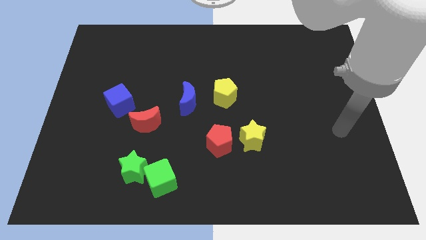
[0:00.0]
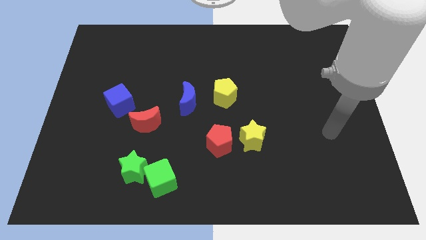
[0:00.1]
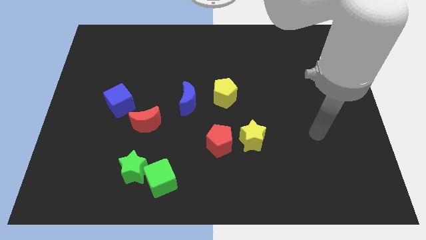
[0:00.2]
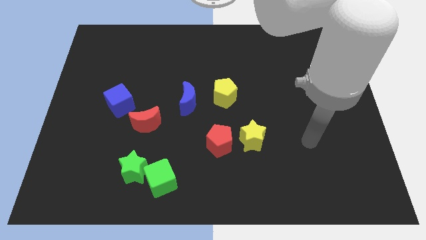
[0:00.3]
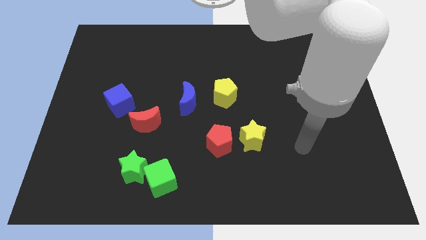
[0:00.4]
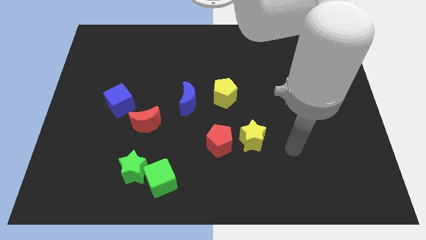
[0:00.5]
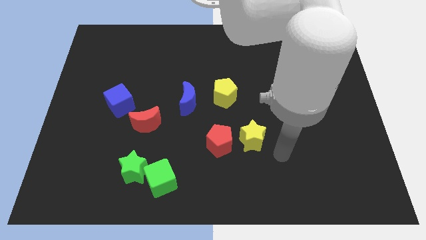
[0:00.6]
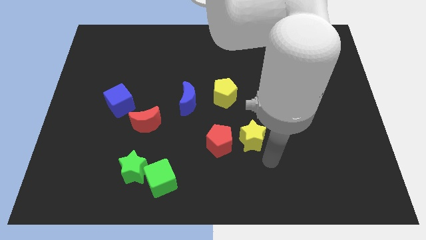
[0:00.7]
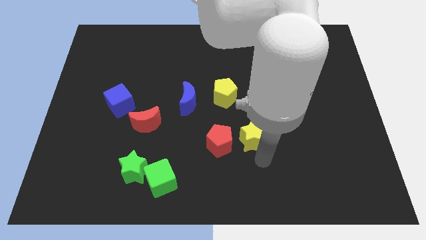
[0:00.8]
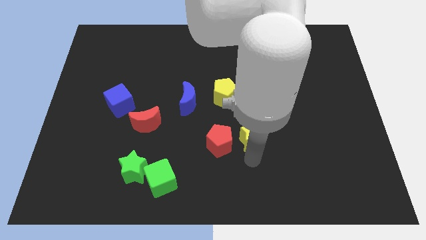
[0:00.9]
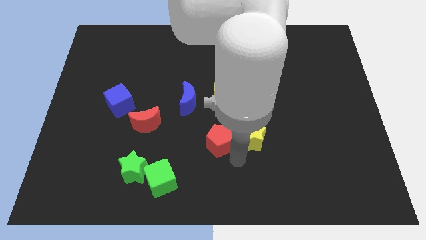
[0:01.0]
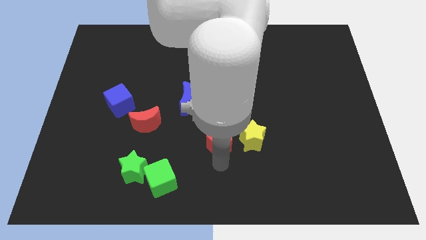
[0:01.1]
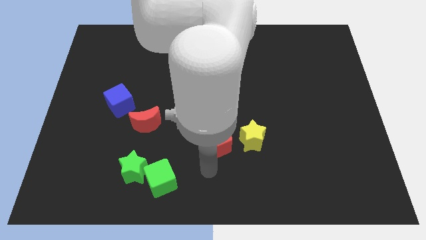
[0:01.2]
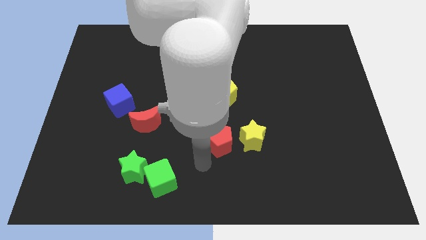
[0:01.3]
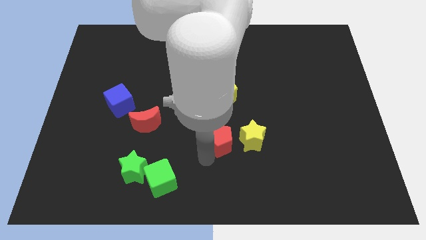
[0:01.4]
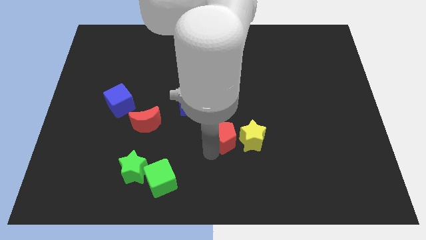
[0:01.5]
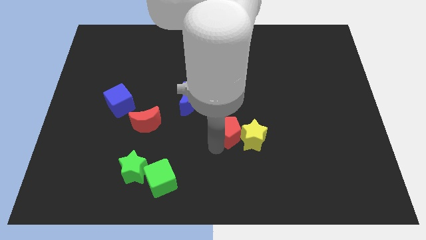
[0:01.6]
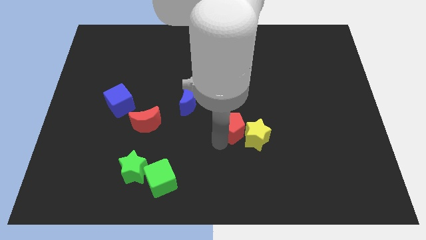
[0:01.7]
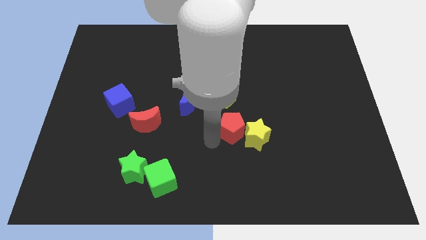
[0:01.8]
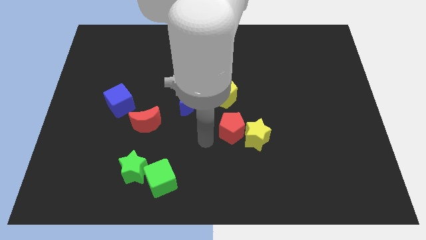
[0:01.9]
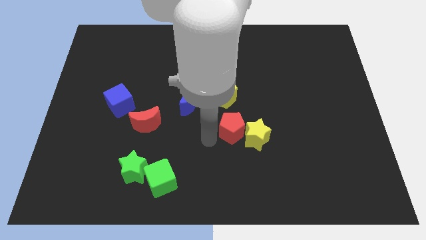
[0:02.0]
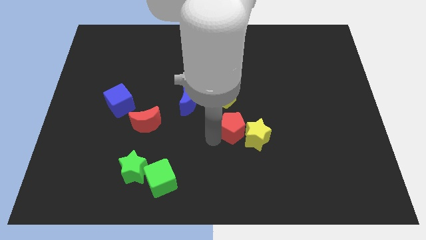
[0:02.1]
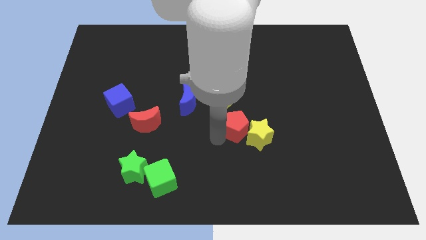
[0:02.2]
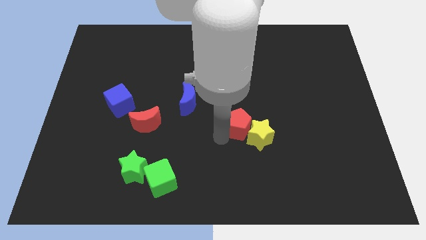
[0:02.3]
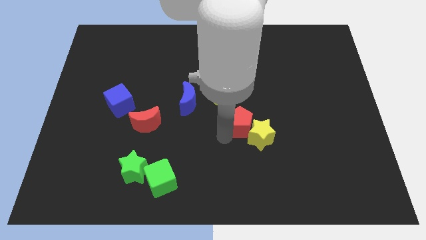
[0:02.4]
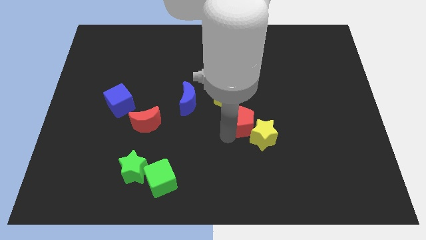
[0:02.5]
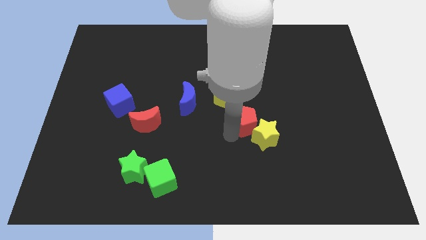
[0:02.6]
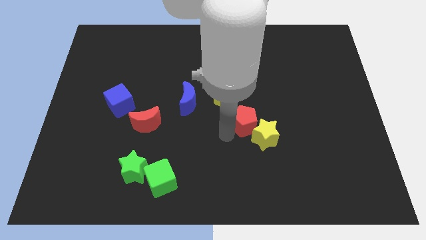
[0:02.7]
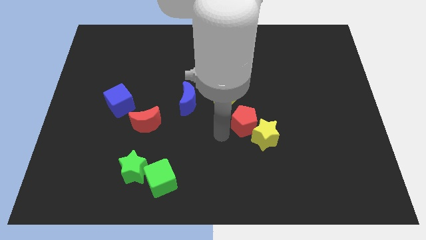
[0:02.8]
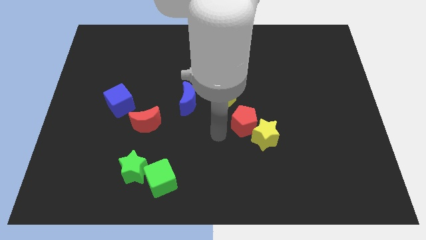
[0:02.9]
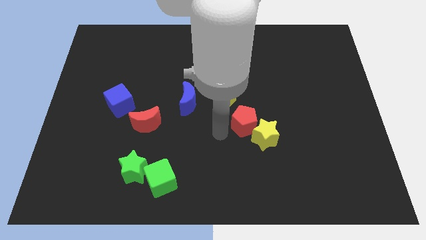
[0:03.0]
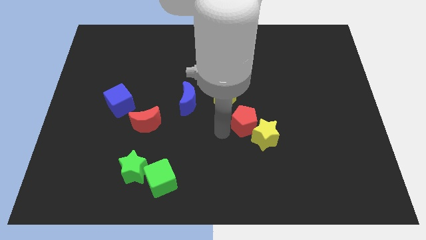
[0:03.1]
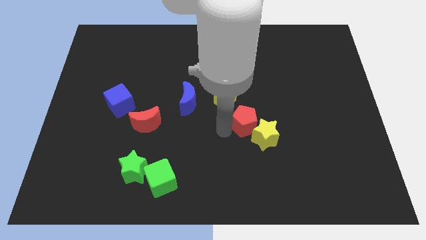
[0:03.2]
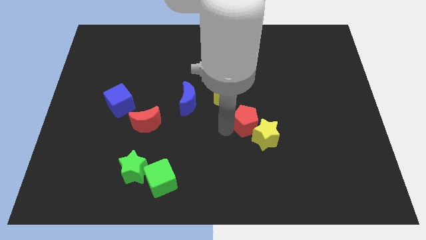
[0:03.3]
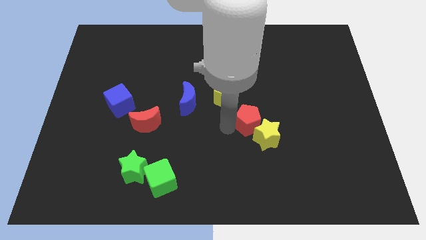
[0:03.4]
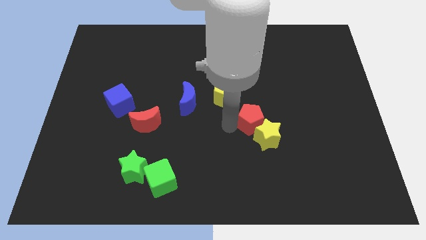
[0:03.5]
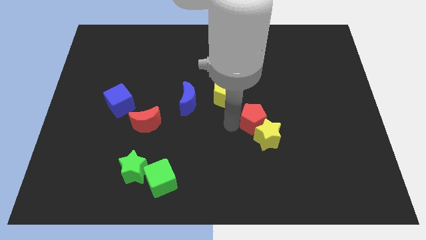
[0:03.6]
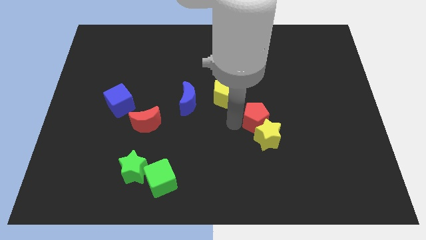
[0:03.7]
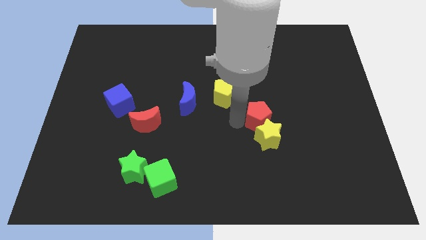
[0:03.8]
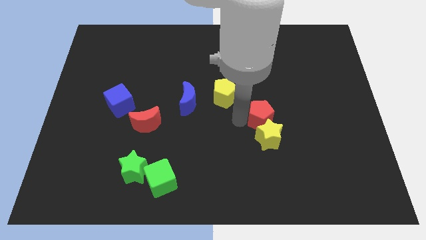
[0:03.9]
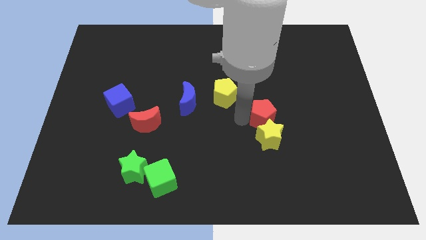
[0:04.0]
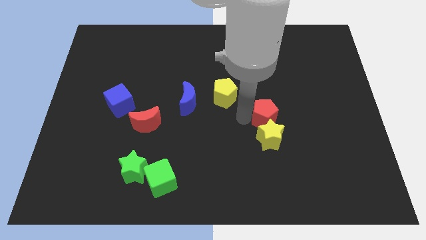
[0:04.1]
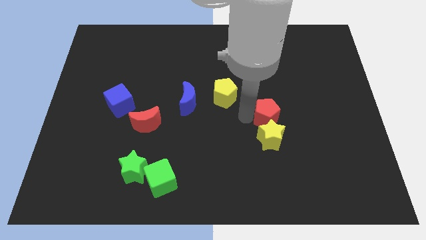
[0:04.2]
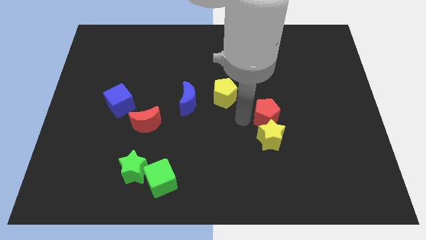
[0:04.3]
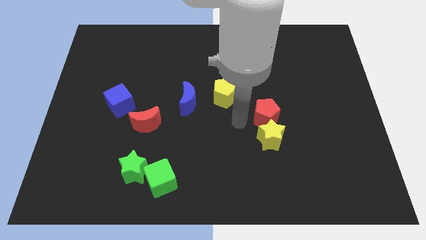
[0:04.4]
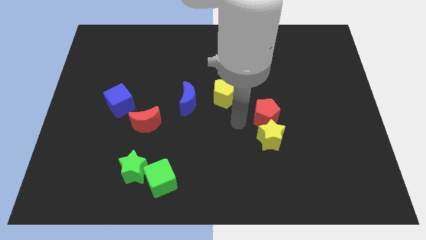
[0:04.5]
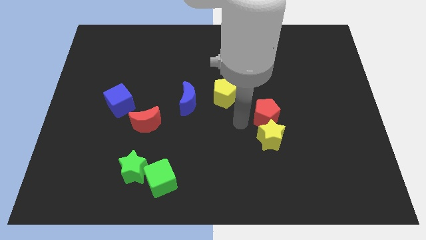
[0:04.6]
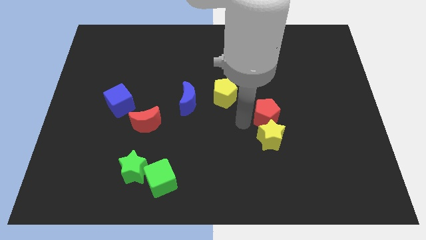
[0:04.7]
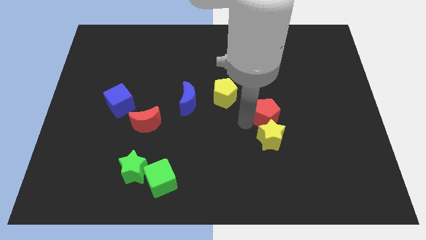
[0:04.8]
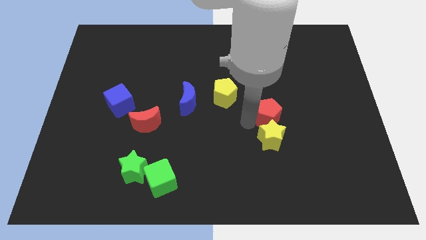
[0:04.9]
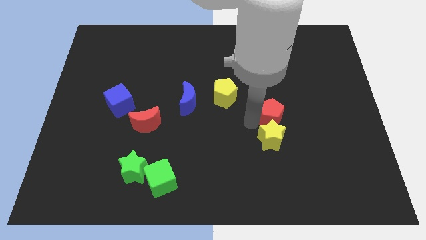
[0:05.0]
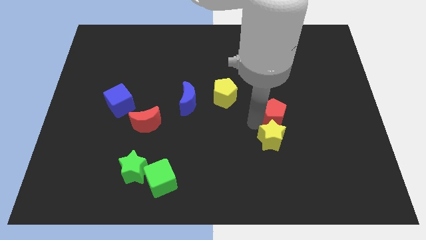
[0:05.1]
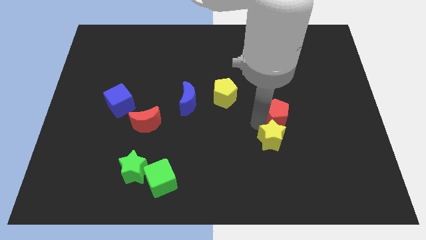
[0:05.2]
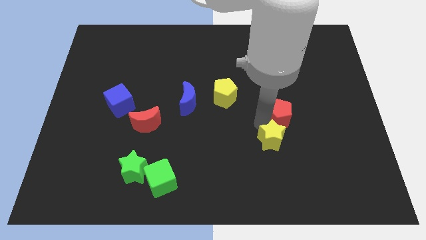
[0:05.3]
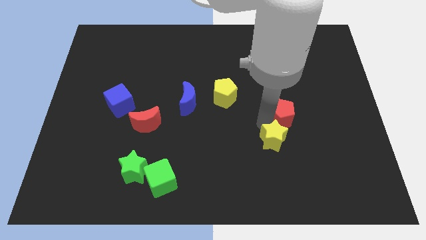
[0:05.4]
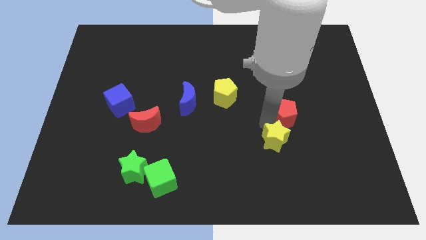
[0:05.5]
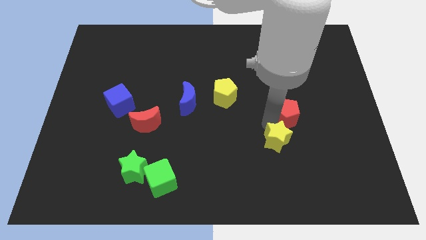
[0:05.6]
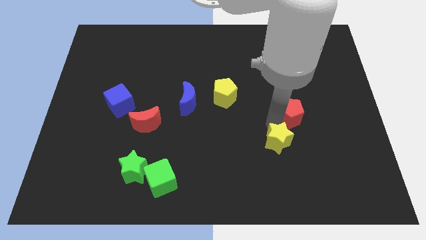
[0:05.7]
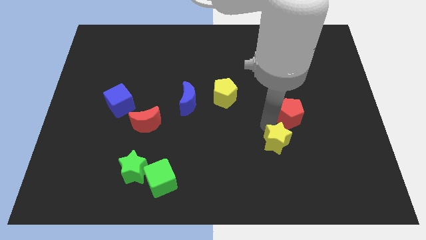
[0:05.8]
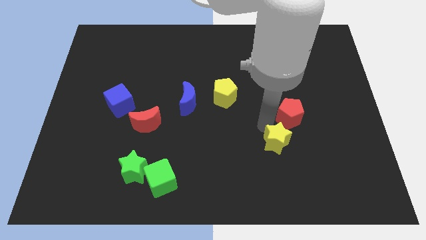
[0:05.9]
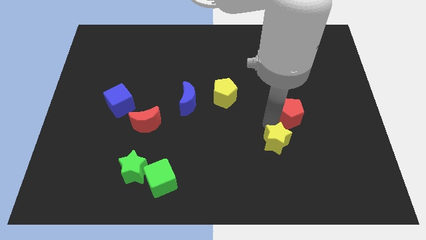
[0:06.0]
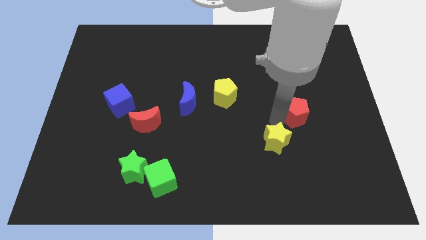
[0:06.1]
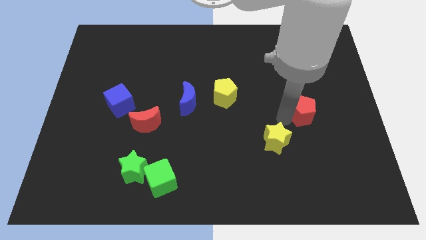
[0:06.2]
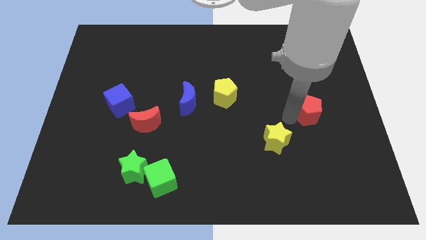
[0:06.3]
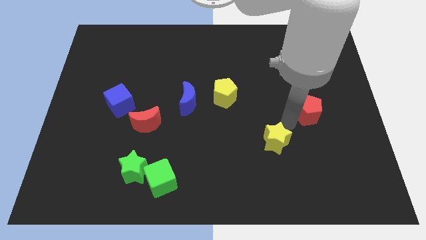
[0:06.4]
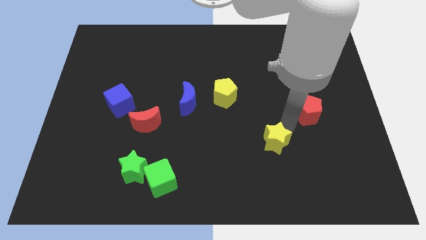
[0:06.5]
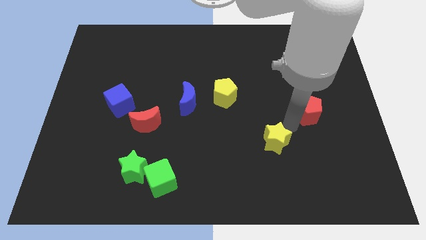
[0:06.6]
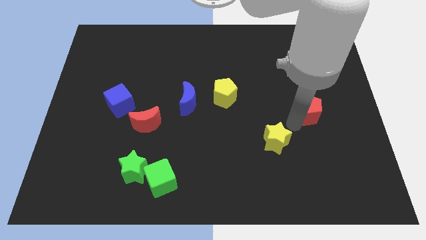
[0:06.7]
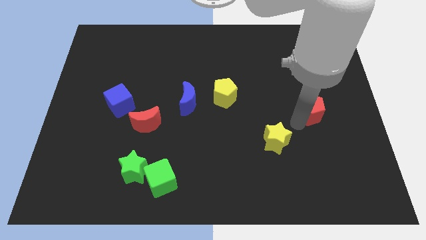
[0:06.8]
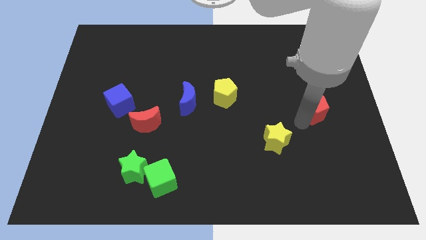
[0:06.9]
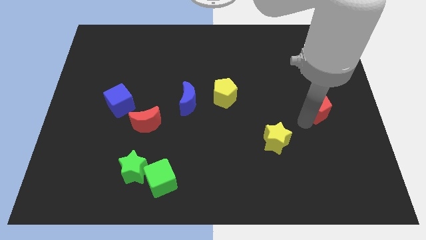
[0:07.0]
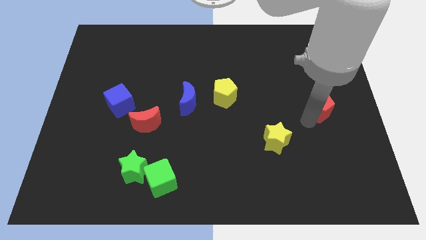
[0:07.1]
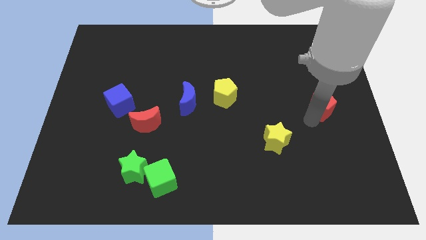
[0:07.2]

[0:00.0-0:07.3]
push the red pentagon to the right side

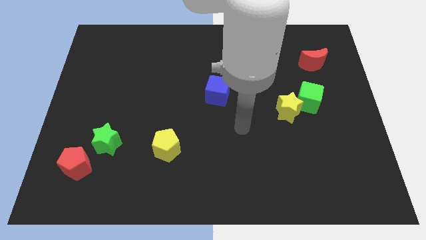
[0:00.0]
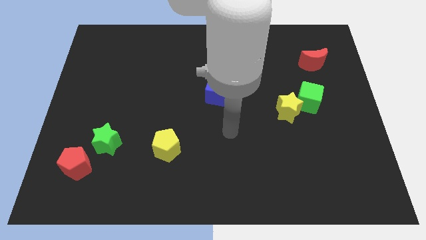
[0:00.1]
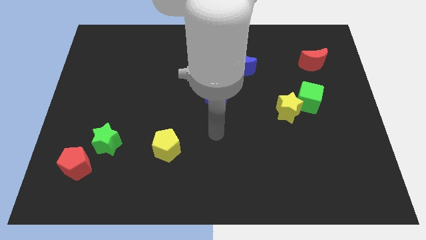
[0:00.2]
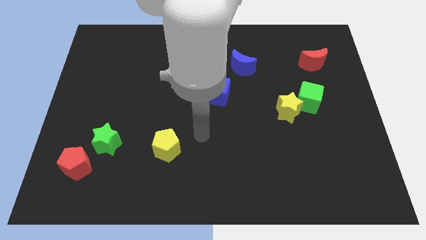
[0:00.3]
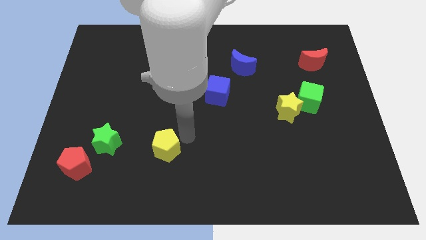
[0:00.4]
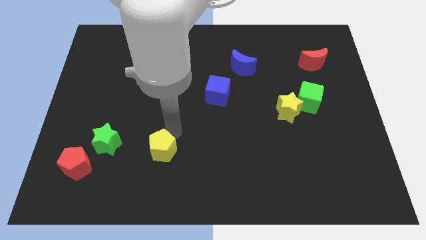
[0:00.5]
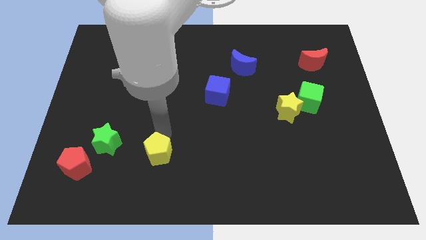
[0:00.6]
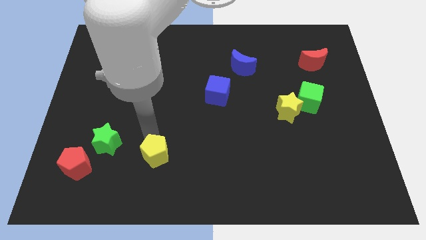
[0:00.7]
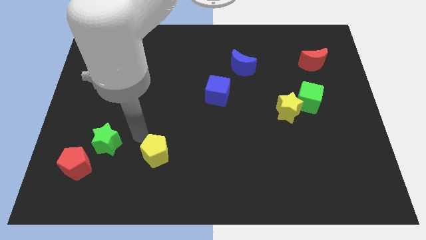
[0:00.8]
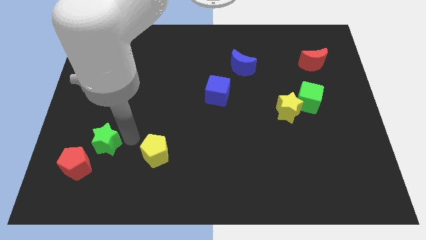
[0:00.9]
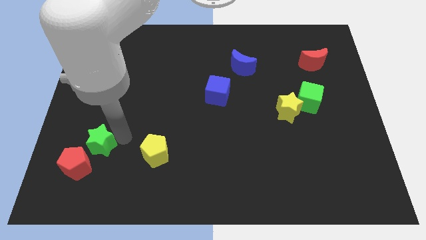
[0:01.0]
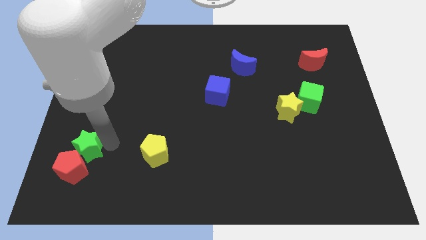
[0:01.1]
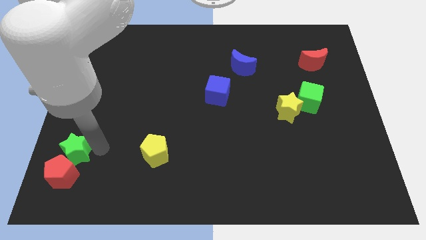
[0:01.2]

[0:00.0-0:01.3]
move the red pentagon to the lower left corner
